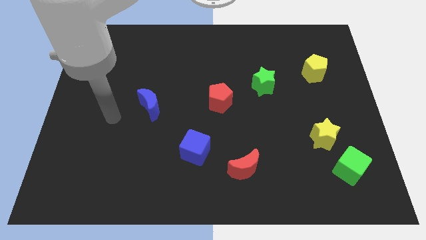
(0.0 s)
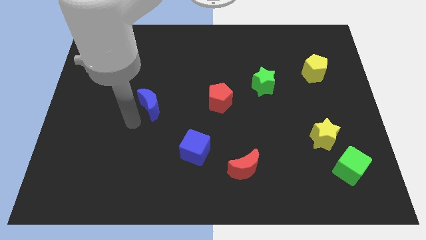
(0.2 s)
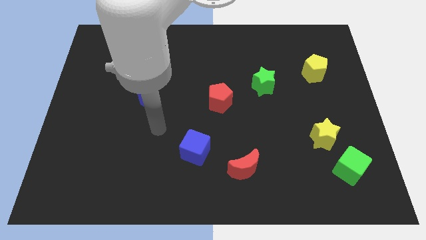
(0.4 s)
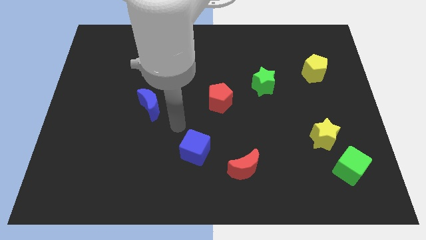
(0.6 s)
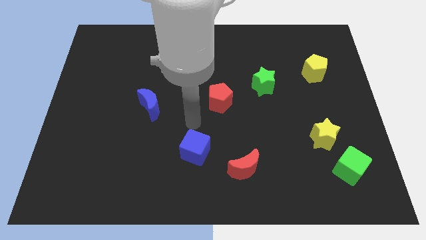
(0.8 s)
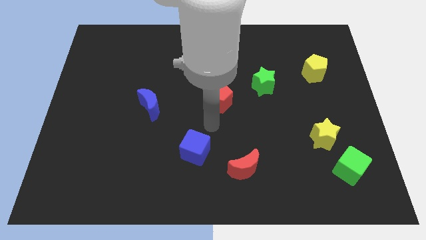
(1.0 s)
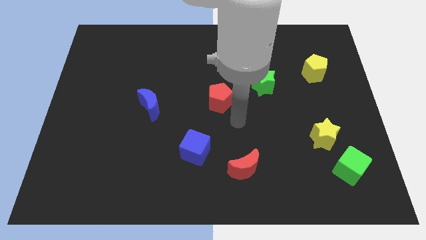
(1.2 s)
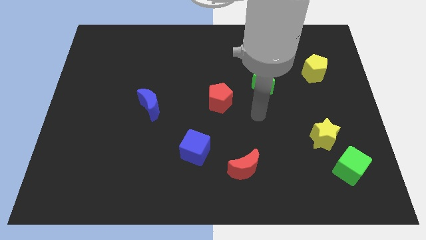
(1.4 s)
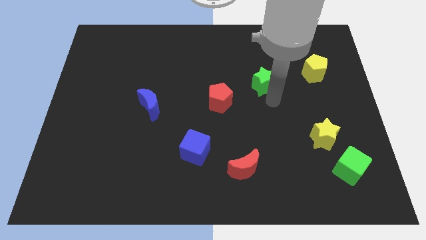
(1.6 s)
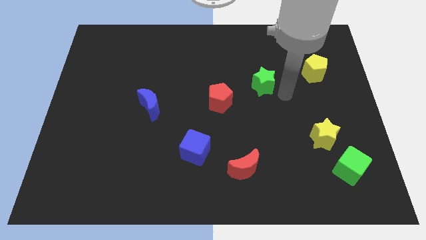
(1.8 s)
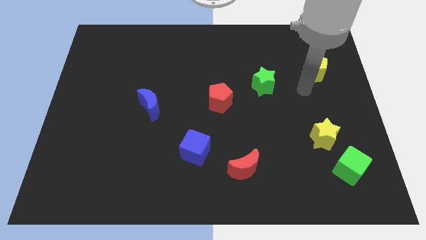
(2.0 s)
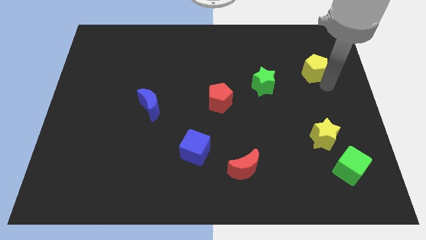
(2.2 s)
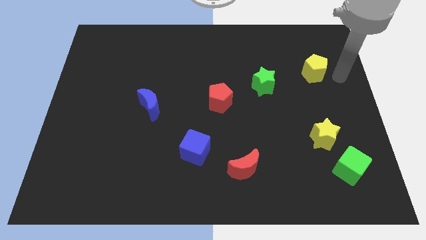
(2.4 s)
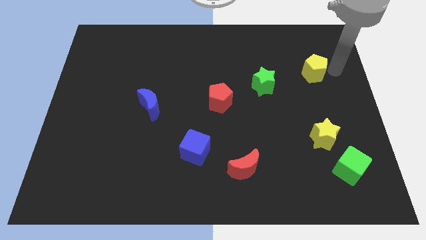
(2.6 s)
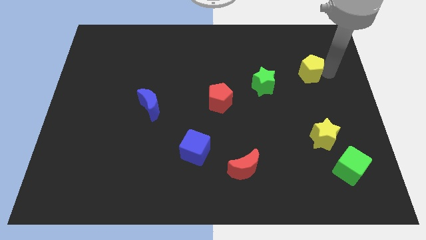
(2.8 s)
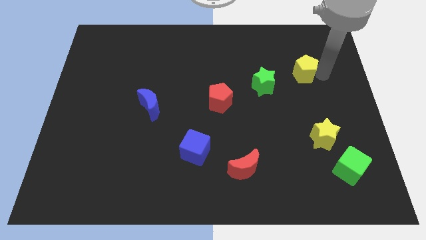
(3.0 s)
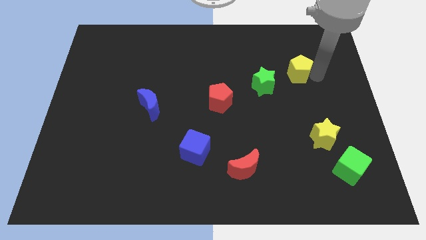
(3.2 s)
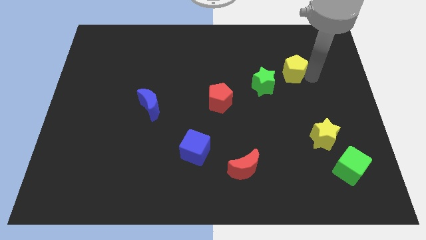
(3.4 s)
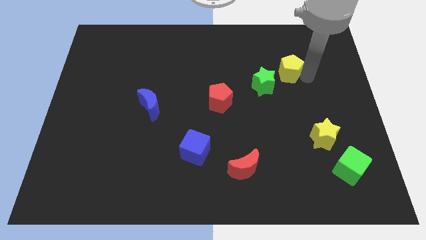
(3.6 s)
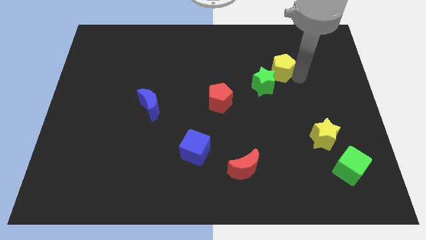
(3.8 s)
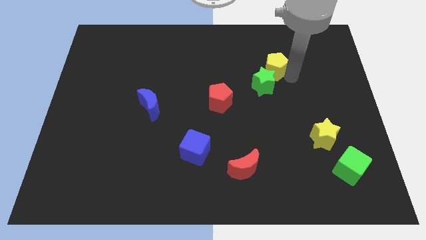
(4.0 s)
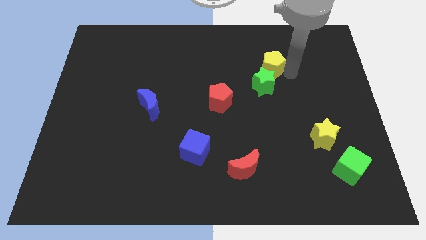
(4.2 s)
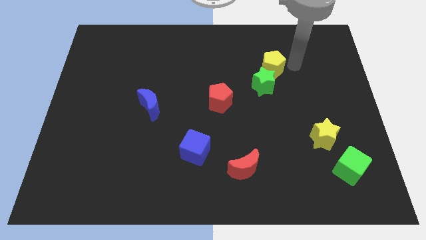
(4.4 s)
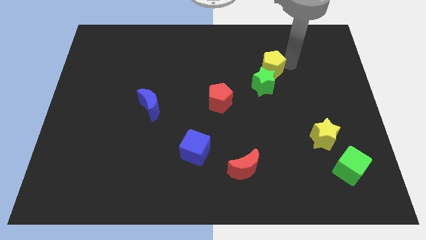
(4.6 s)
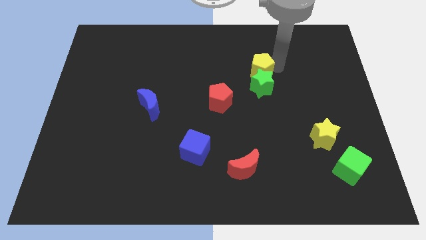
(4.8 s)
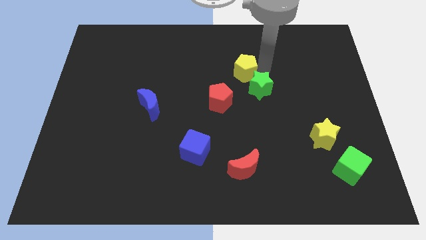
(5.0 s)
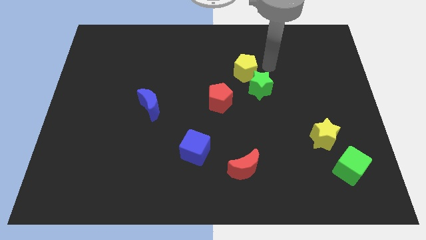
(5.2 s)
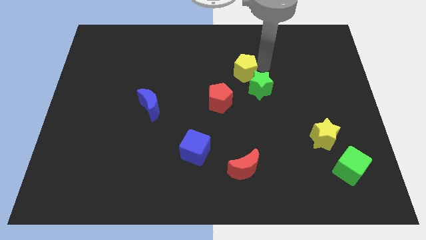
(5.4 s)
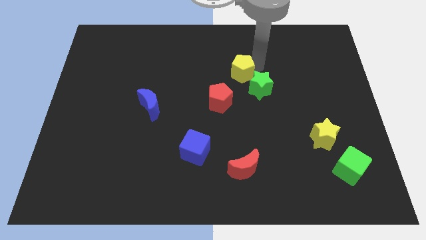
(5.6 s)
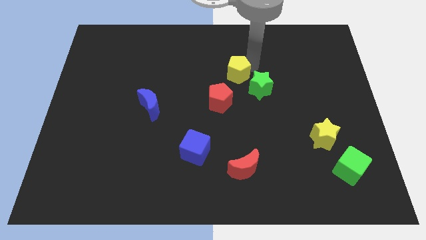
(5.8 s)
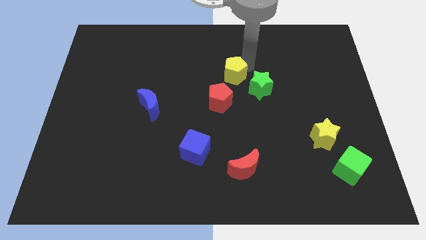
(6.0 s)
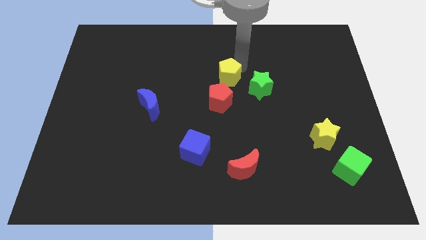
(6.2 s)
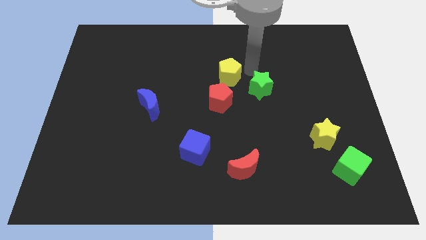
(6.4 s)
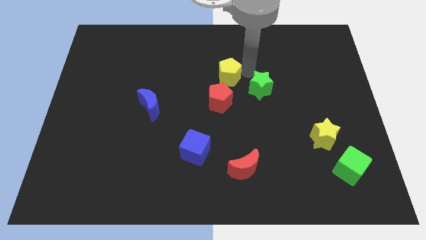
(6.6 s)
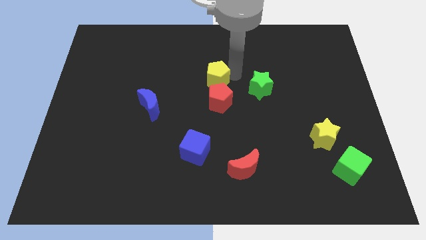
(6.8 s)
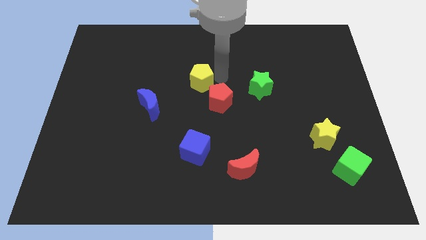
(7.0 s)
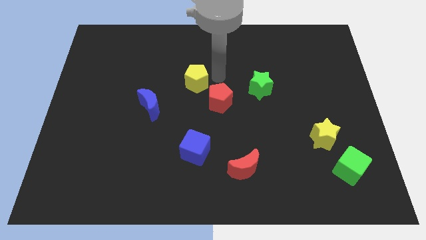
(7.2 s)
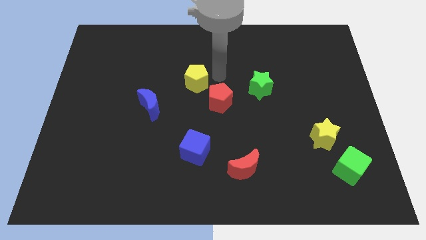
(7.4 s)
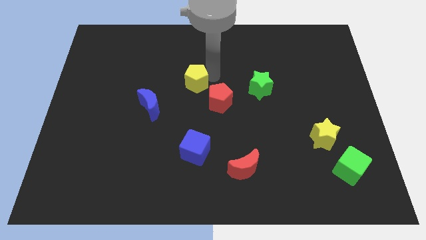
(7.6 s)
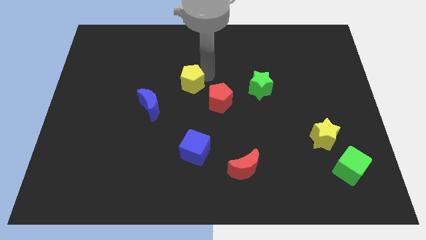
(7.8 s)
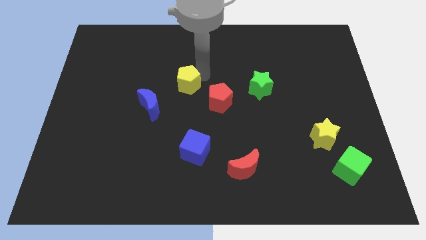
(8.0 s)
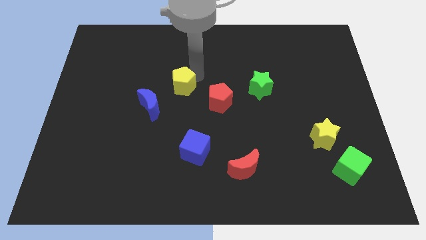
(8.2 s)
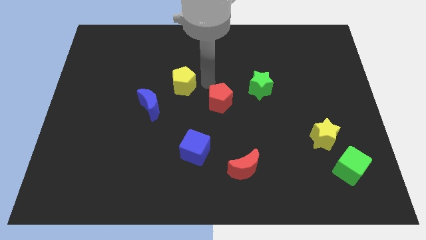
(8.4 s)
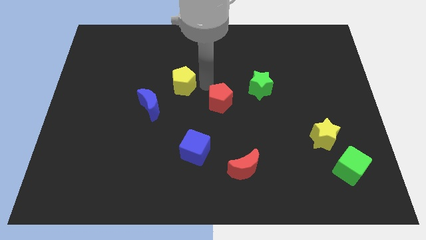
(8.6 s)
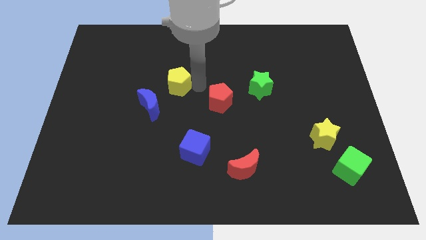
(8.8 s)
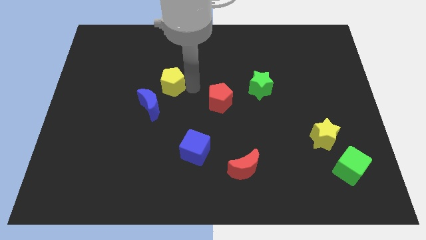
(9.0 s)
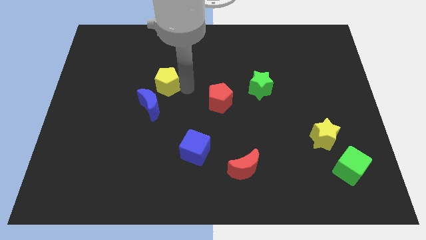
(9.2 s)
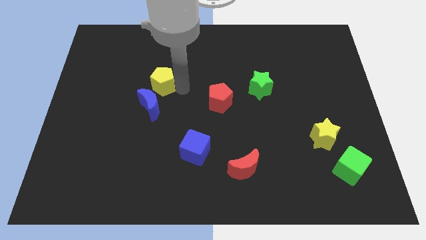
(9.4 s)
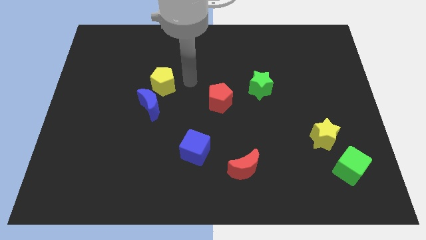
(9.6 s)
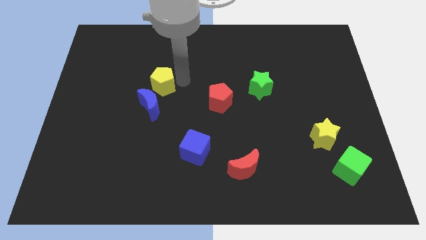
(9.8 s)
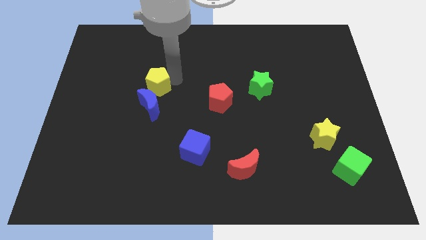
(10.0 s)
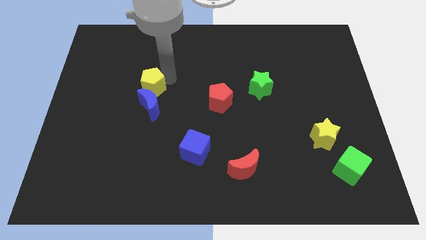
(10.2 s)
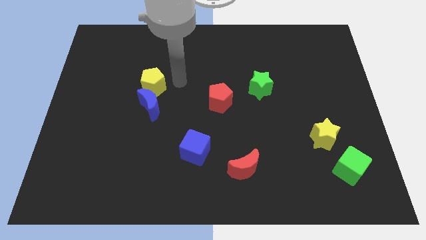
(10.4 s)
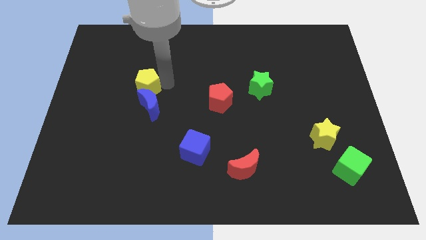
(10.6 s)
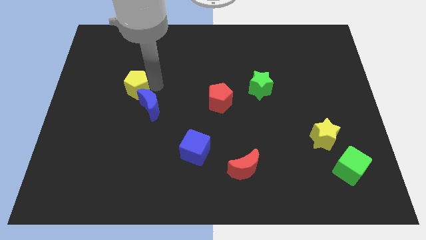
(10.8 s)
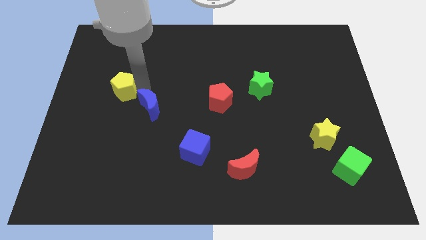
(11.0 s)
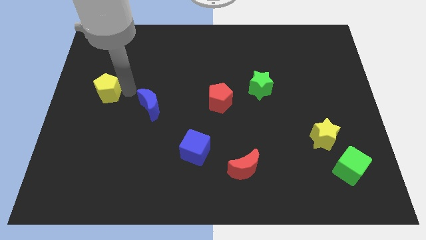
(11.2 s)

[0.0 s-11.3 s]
push the yellow pentagon to the left side
